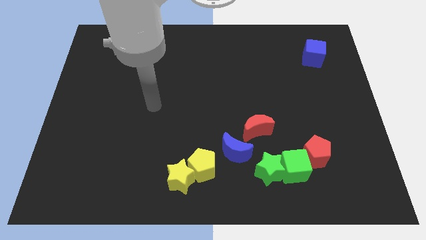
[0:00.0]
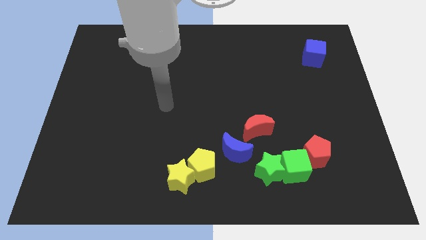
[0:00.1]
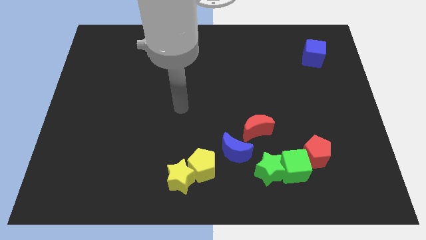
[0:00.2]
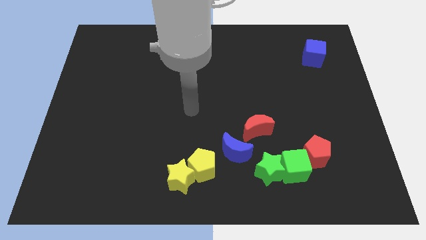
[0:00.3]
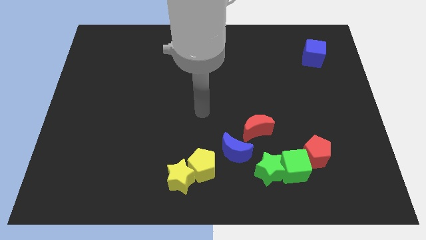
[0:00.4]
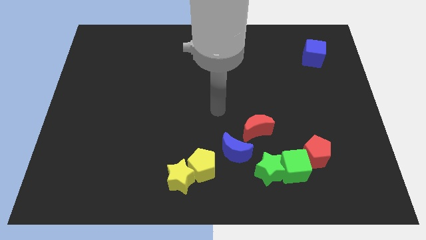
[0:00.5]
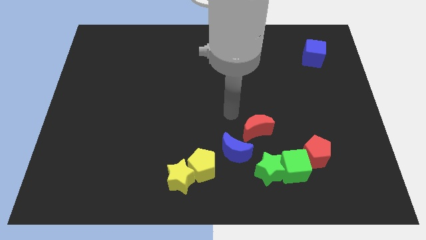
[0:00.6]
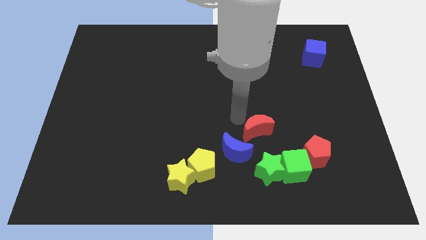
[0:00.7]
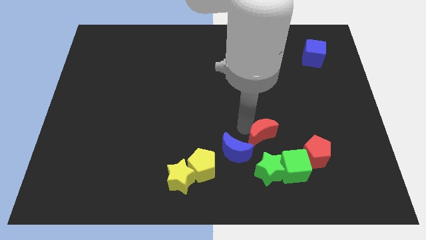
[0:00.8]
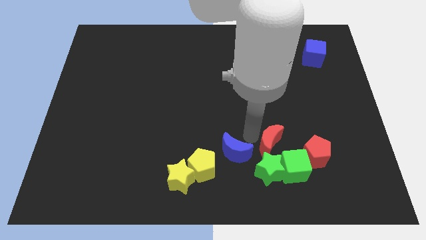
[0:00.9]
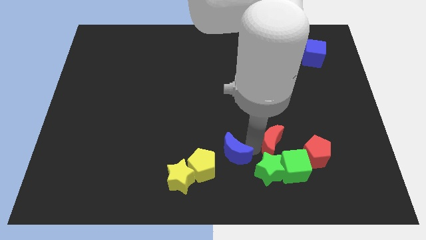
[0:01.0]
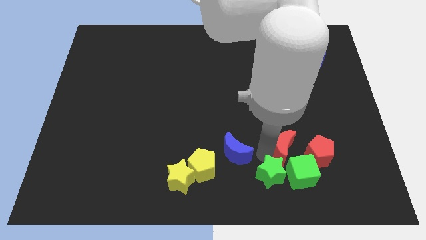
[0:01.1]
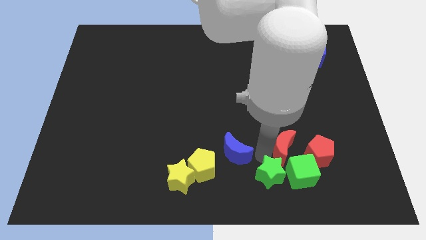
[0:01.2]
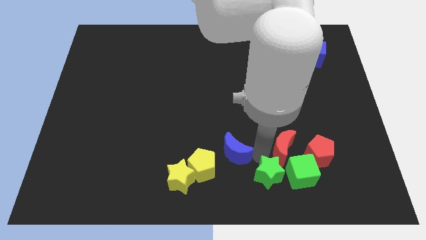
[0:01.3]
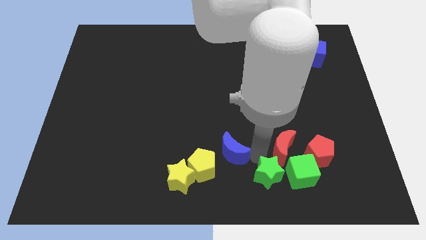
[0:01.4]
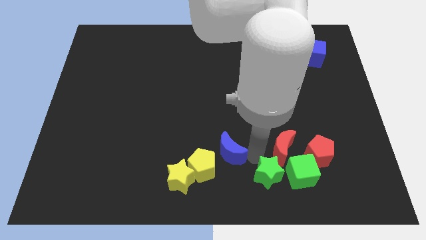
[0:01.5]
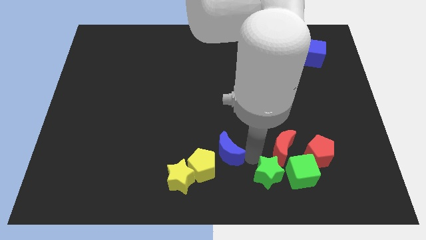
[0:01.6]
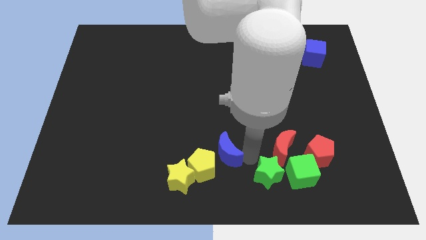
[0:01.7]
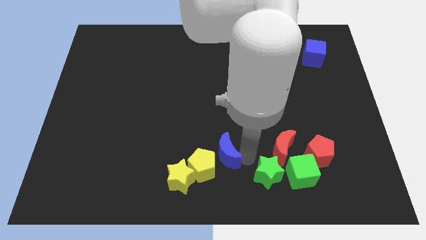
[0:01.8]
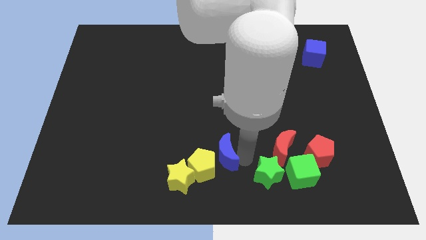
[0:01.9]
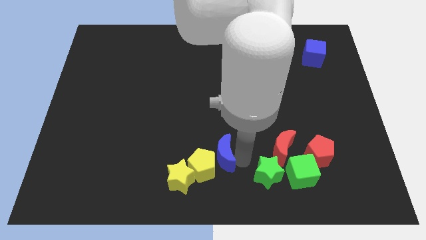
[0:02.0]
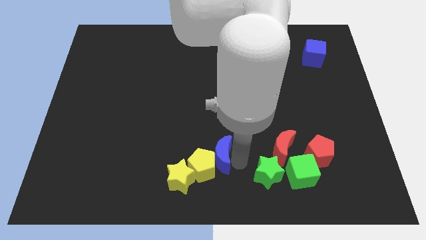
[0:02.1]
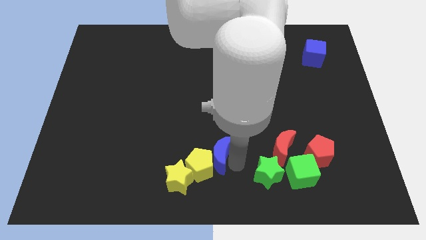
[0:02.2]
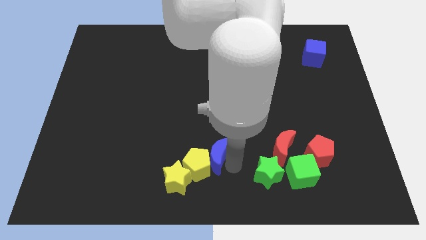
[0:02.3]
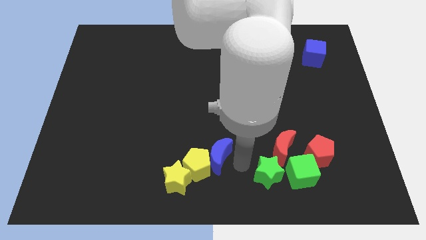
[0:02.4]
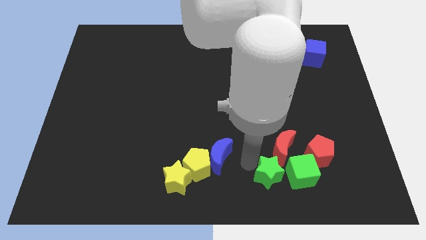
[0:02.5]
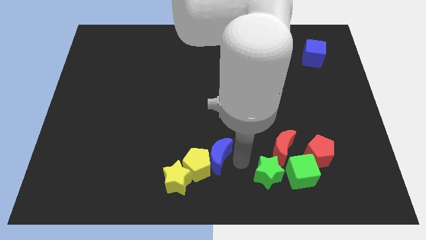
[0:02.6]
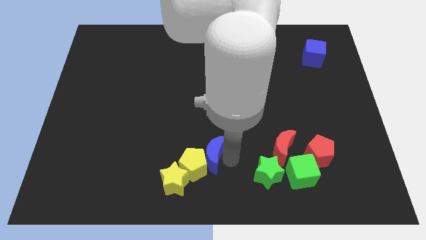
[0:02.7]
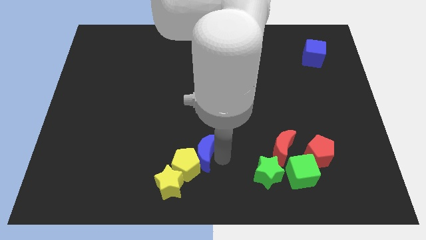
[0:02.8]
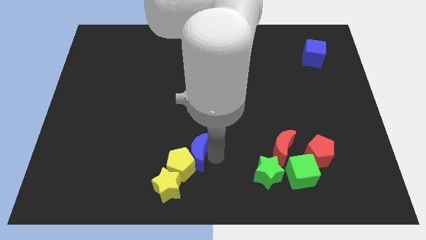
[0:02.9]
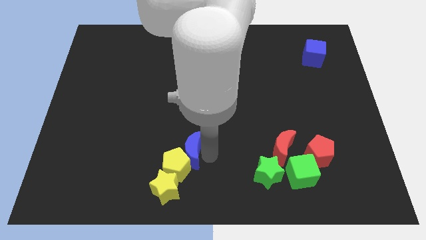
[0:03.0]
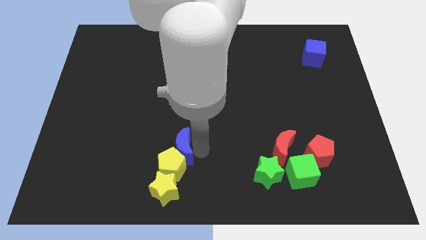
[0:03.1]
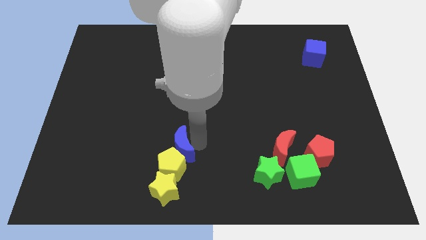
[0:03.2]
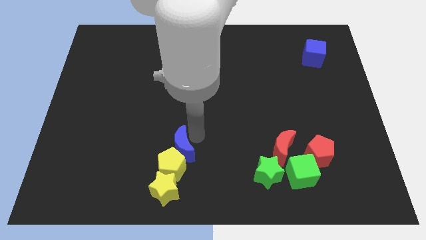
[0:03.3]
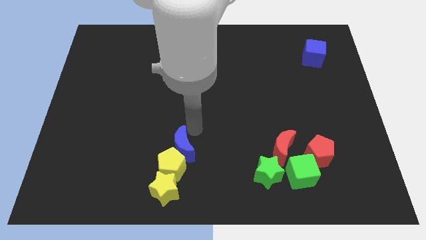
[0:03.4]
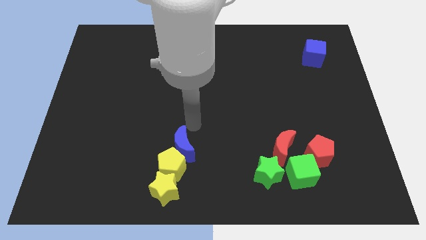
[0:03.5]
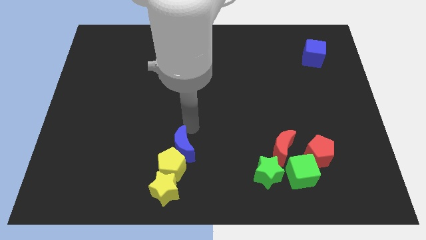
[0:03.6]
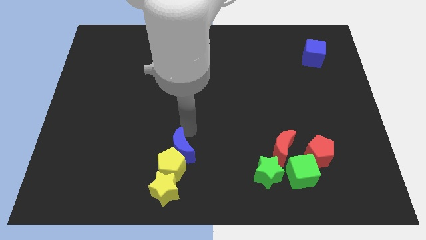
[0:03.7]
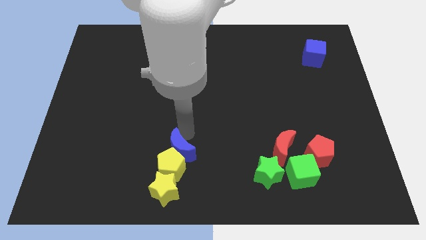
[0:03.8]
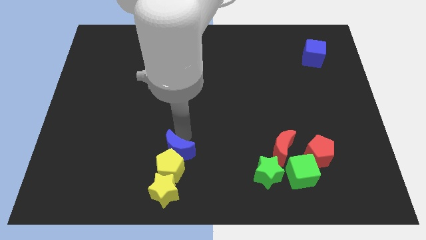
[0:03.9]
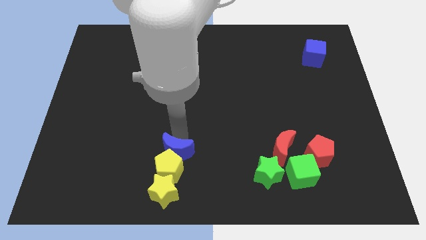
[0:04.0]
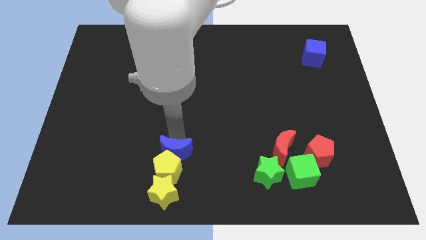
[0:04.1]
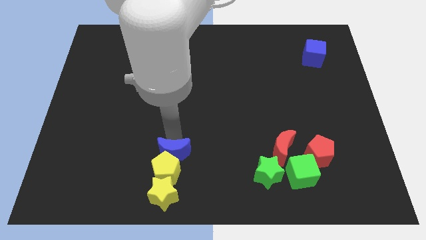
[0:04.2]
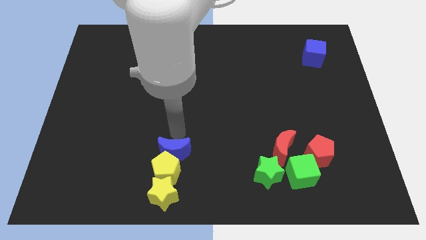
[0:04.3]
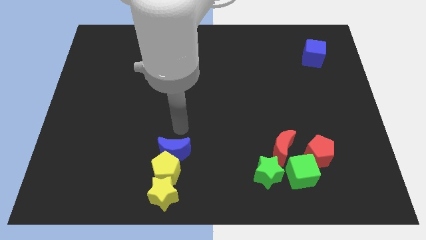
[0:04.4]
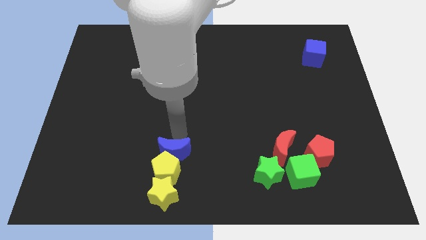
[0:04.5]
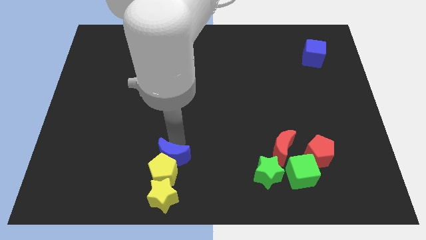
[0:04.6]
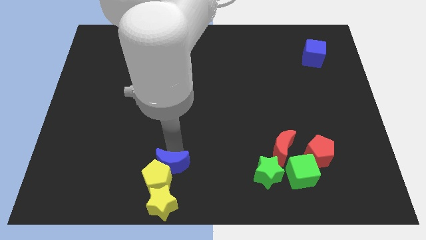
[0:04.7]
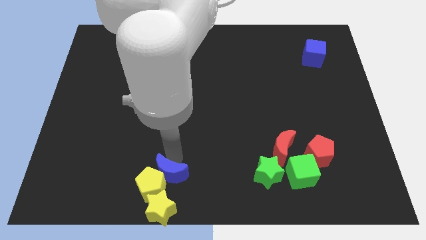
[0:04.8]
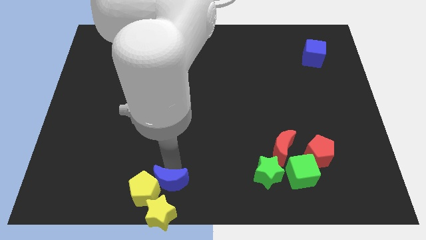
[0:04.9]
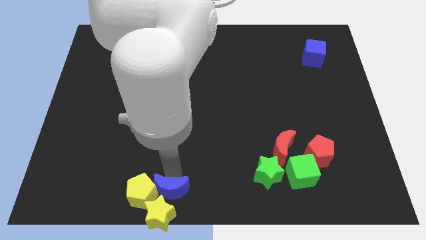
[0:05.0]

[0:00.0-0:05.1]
move the blue moon to the yellow star

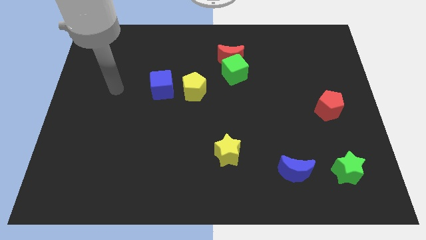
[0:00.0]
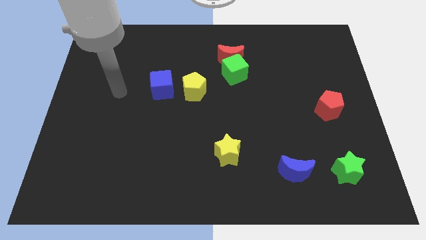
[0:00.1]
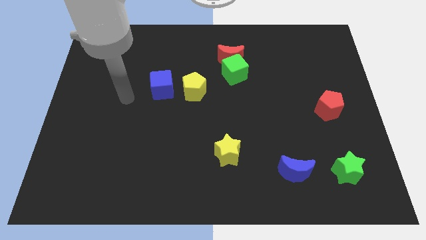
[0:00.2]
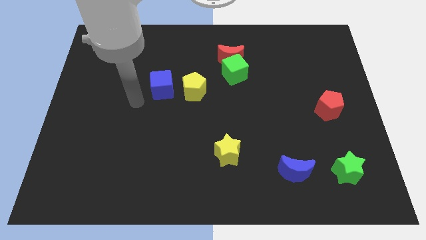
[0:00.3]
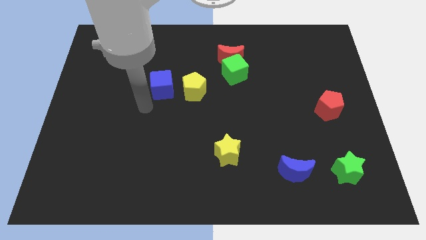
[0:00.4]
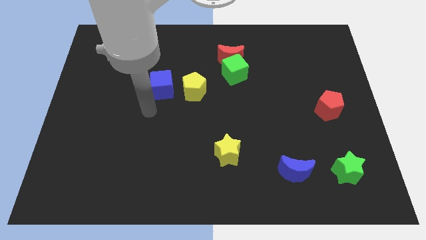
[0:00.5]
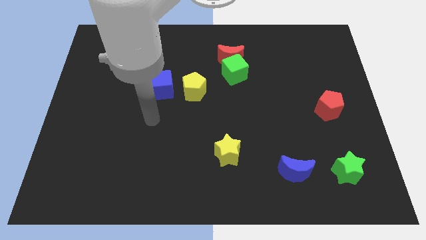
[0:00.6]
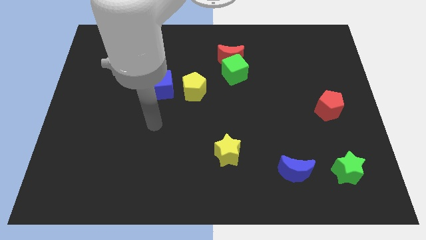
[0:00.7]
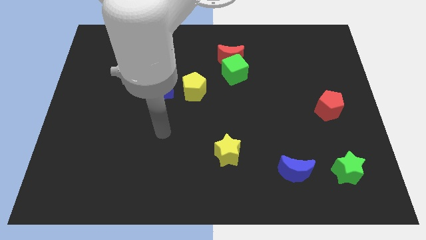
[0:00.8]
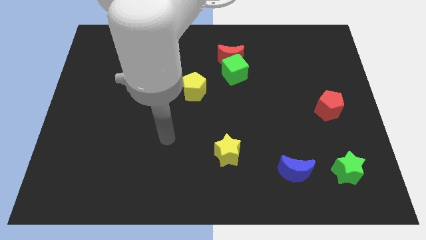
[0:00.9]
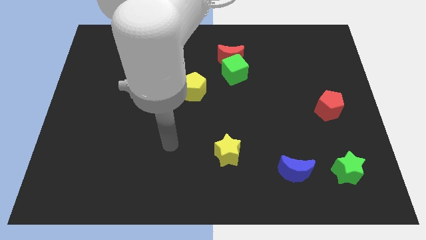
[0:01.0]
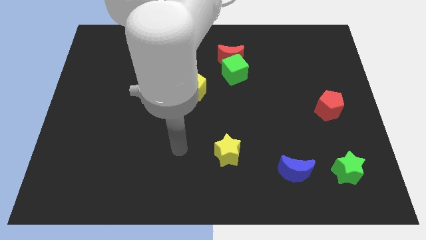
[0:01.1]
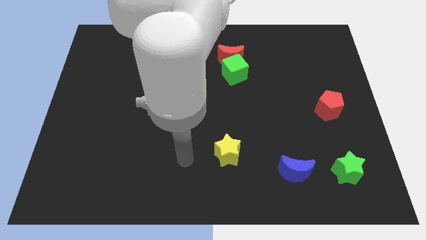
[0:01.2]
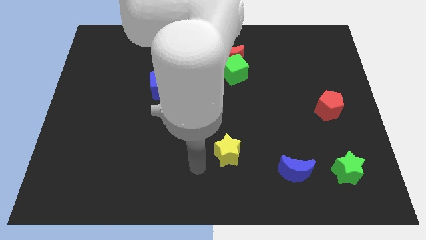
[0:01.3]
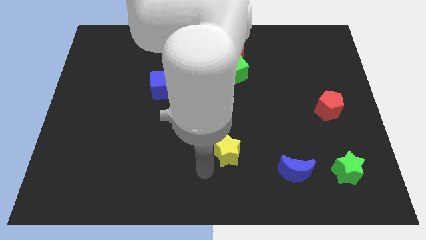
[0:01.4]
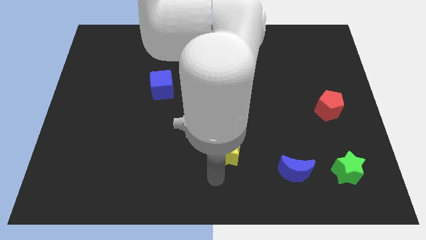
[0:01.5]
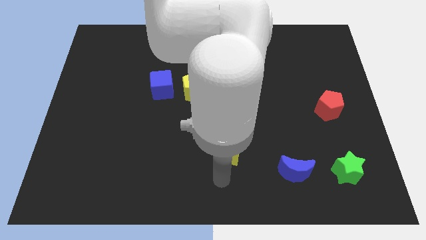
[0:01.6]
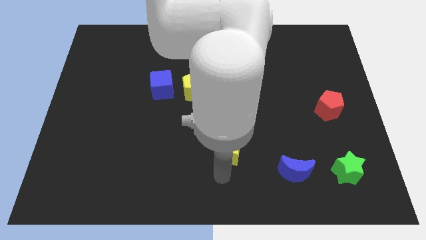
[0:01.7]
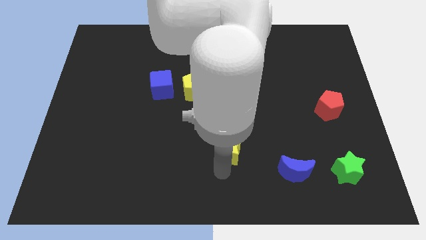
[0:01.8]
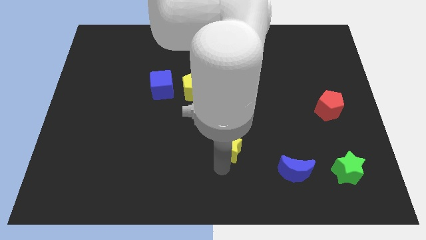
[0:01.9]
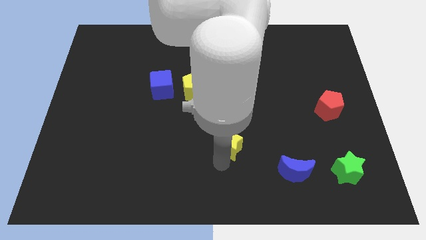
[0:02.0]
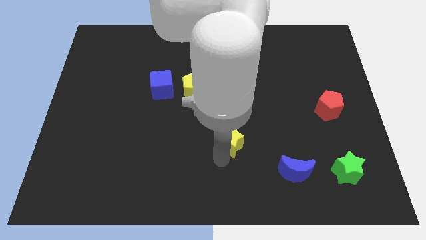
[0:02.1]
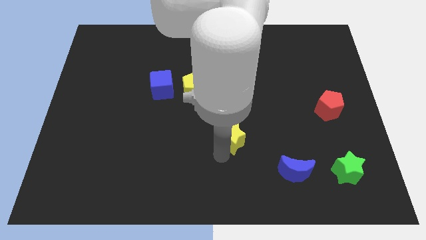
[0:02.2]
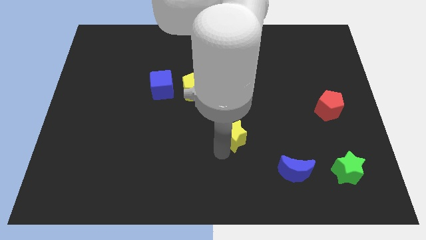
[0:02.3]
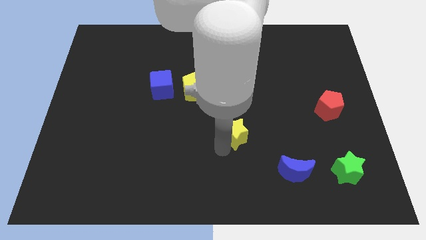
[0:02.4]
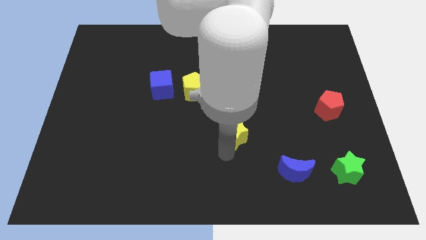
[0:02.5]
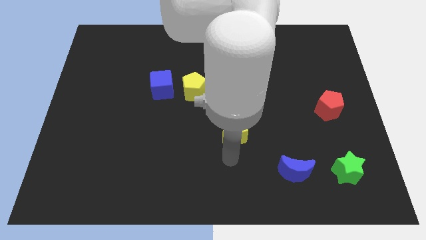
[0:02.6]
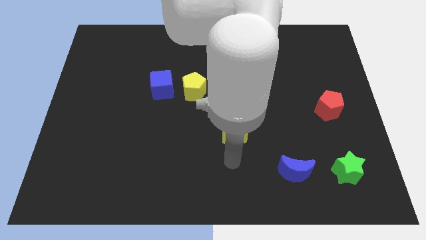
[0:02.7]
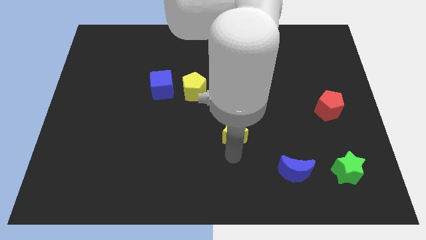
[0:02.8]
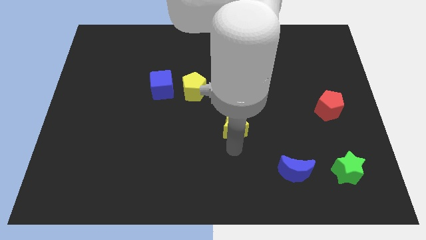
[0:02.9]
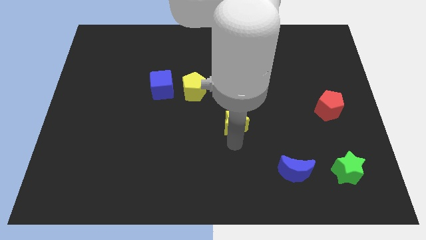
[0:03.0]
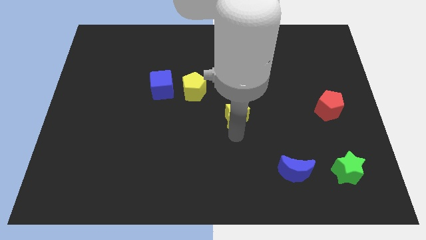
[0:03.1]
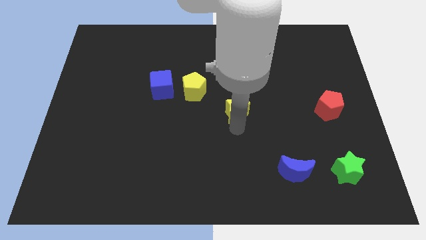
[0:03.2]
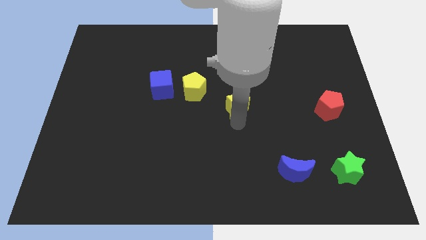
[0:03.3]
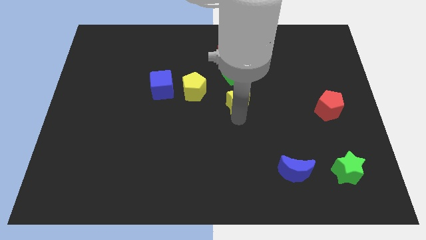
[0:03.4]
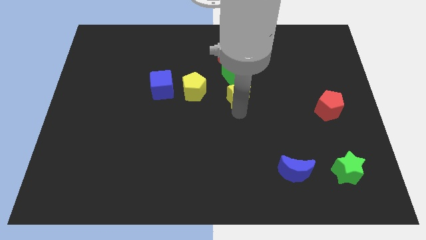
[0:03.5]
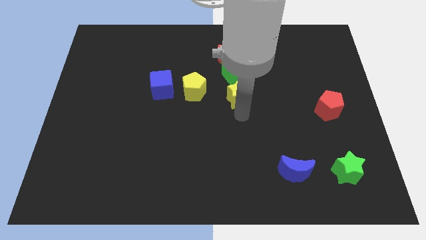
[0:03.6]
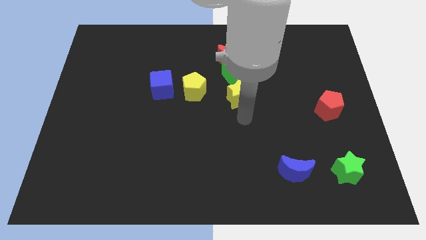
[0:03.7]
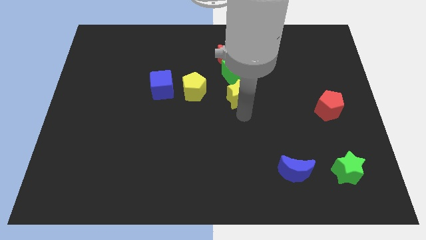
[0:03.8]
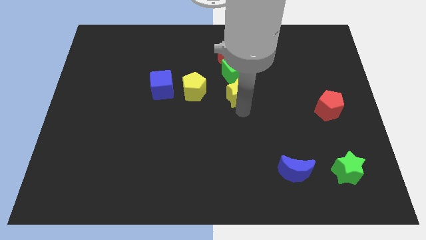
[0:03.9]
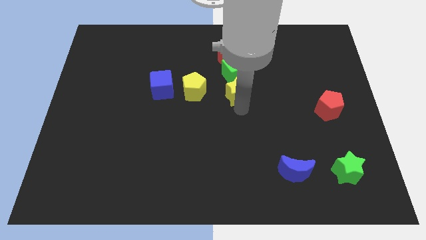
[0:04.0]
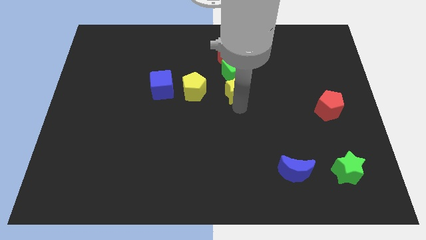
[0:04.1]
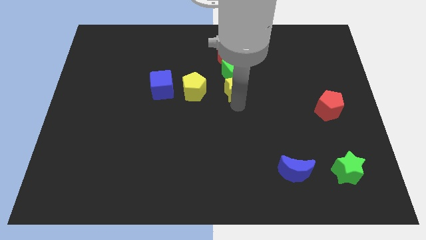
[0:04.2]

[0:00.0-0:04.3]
slide the yellow star to the green cube
